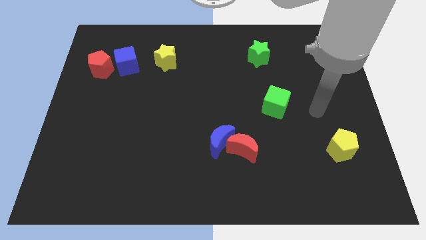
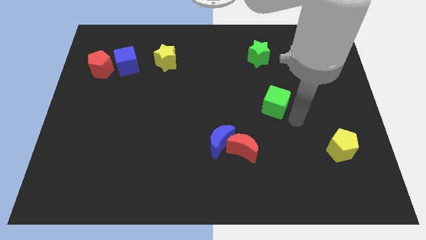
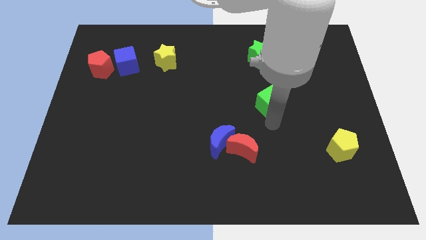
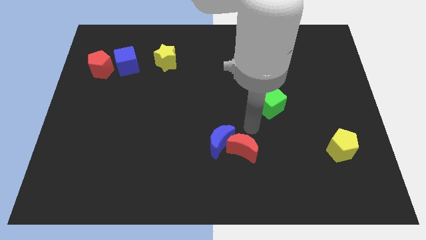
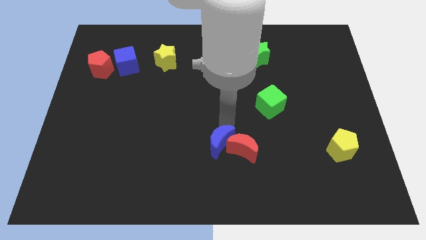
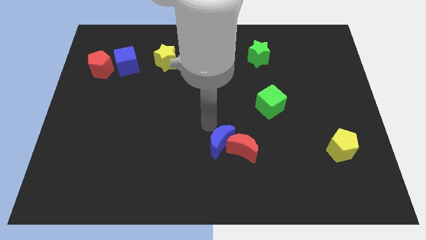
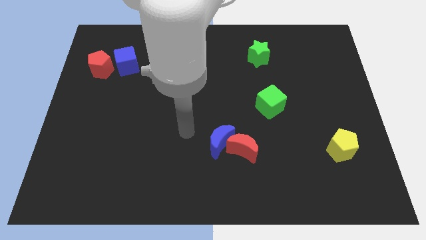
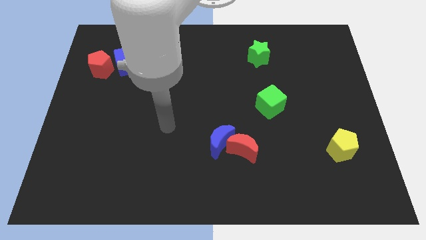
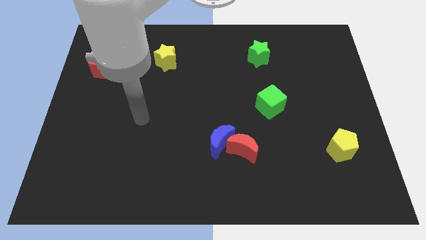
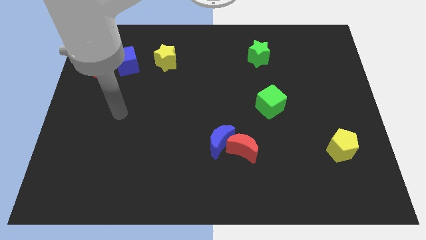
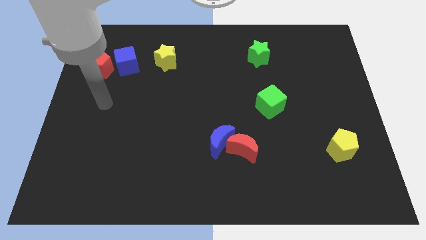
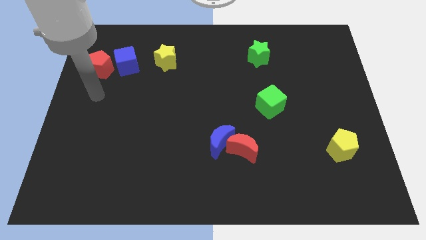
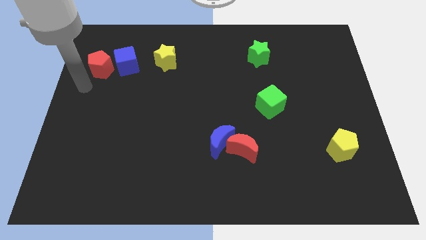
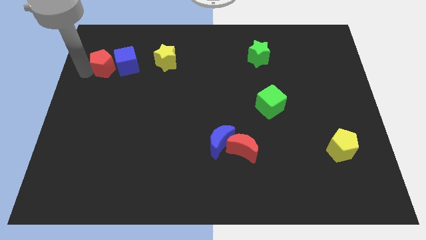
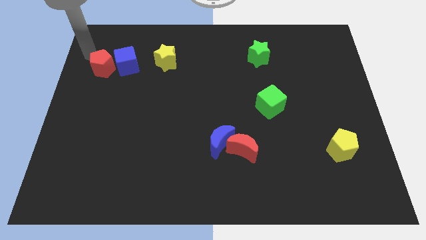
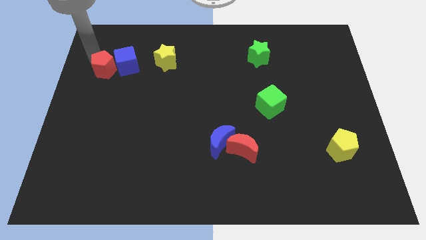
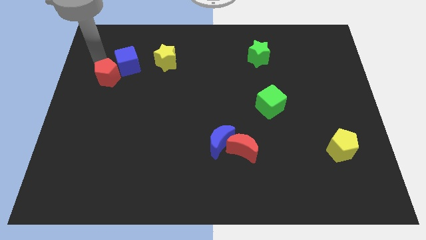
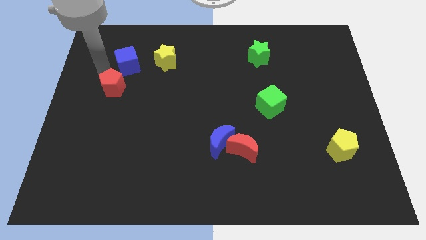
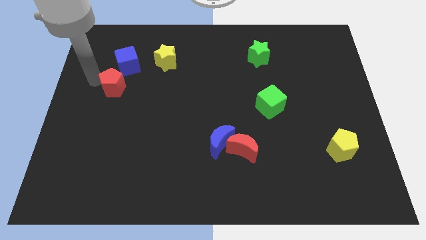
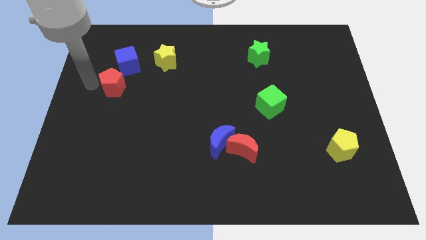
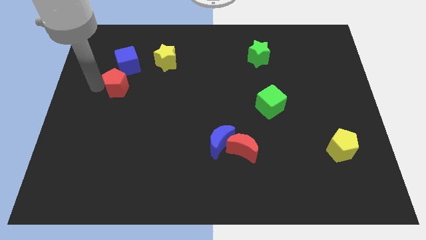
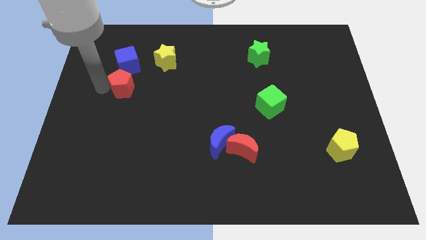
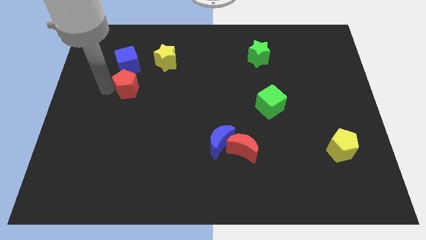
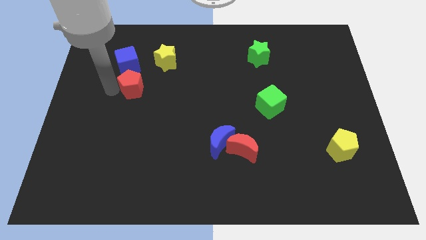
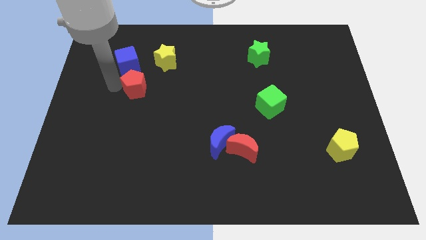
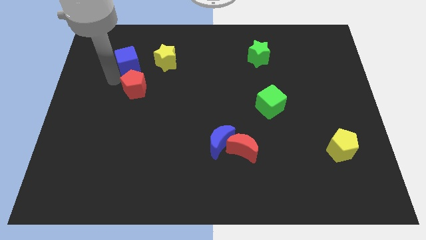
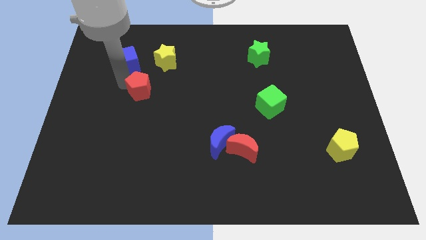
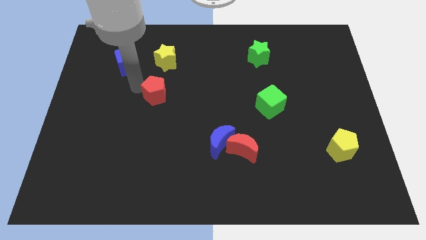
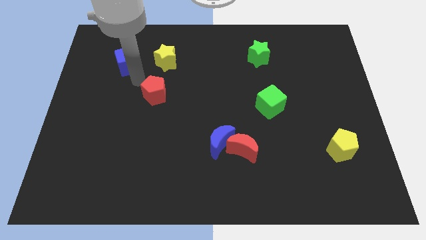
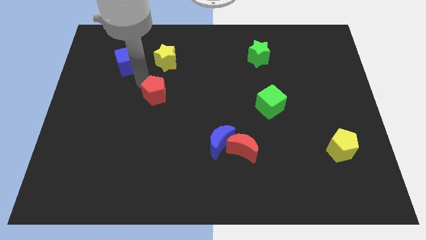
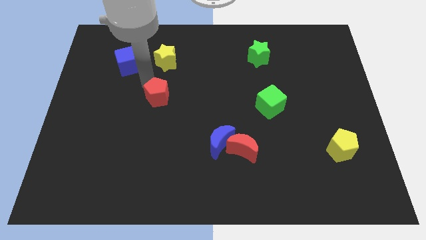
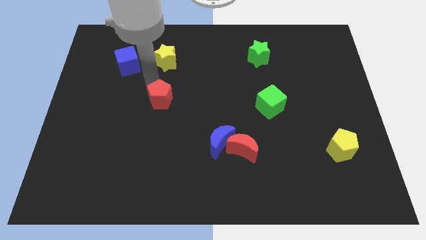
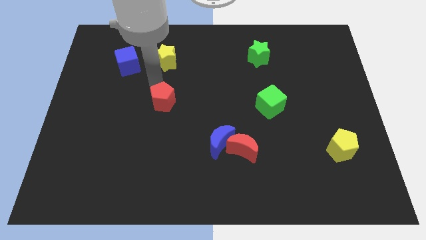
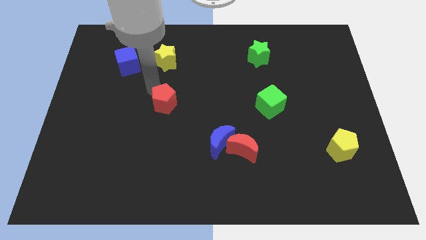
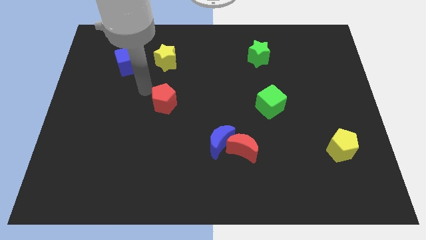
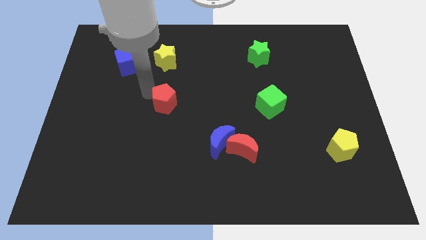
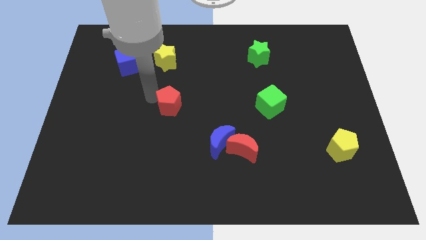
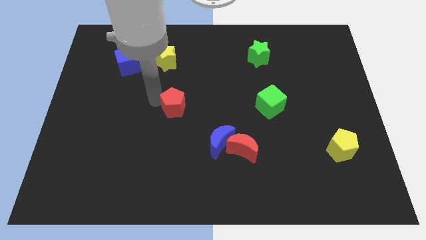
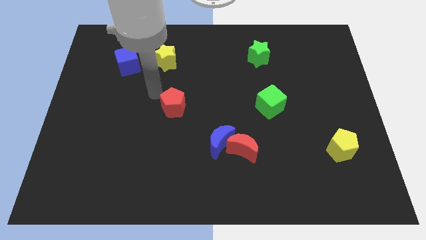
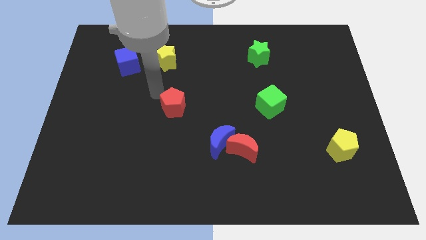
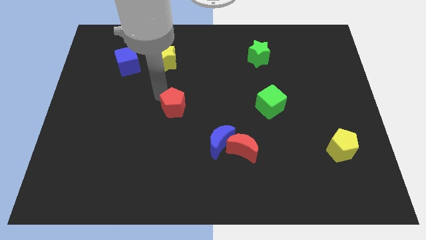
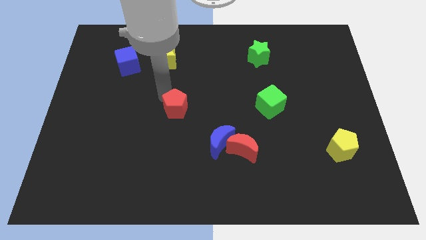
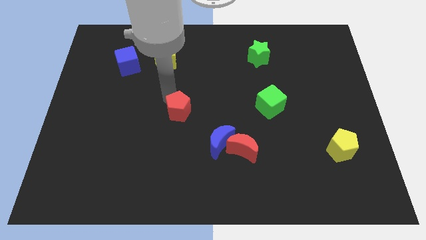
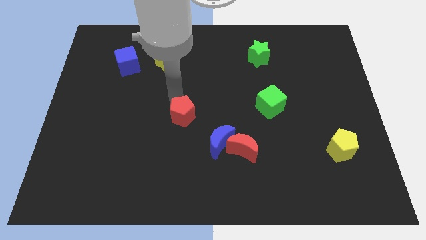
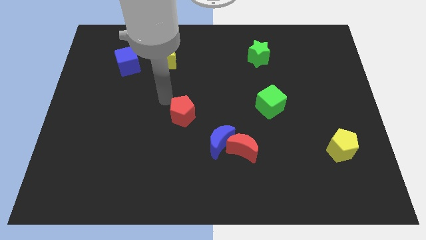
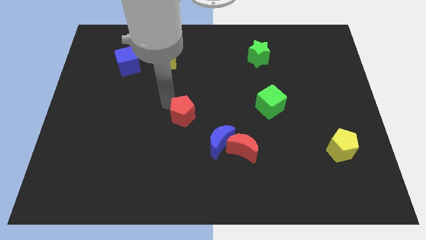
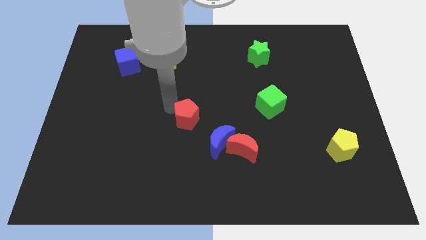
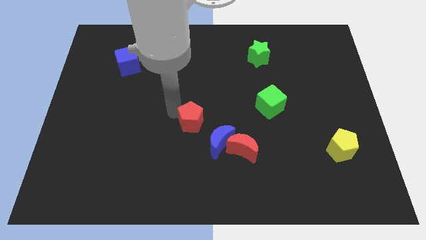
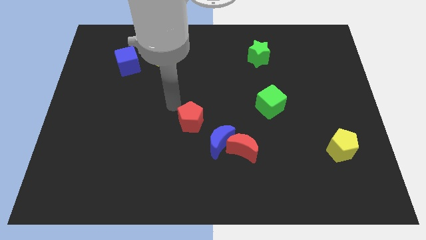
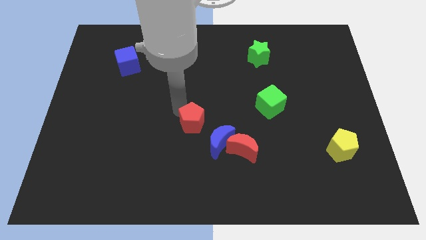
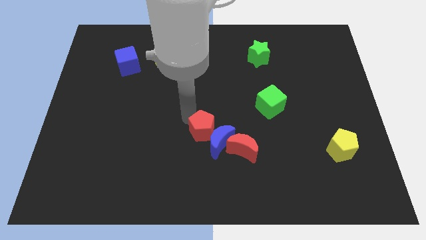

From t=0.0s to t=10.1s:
push the red pentagon to the blue moon

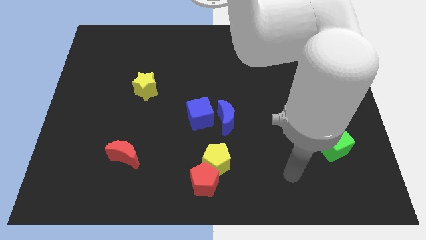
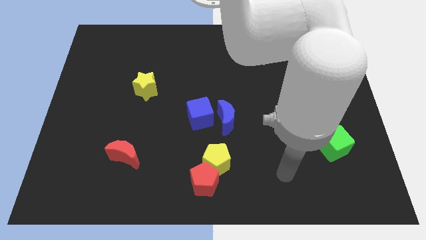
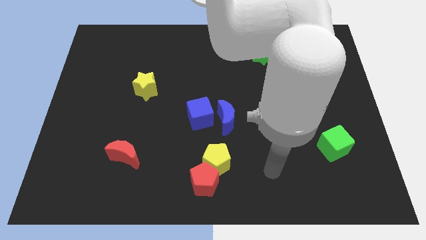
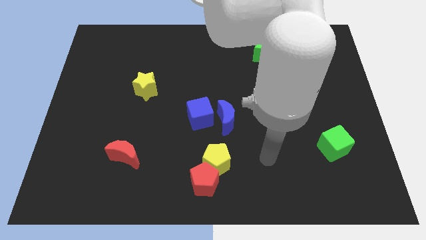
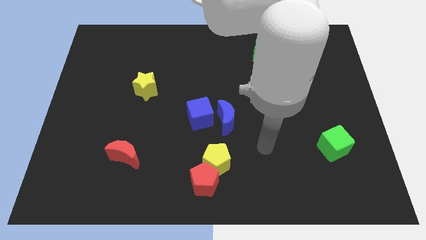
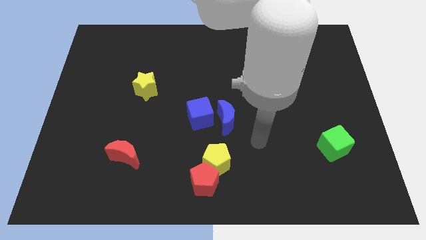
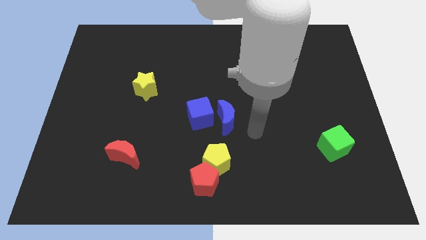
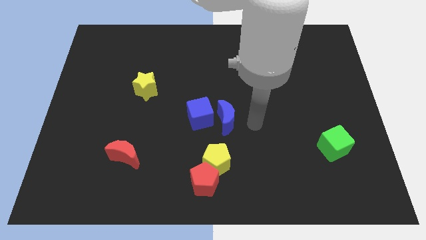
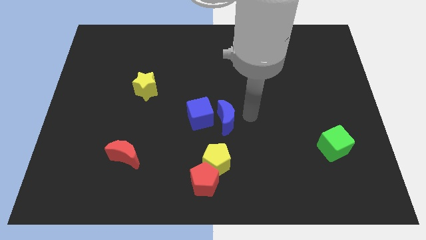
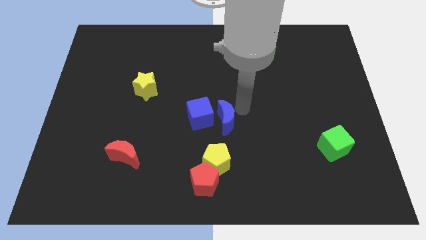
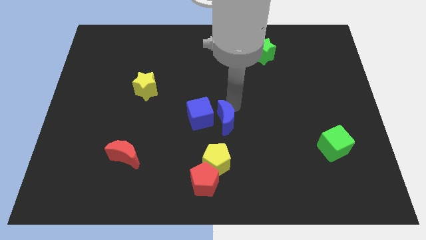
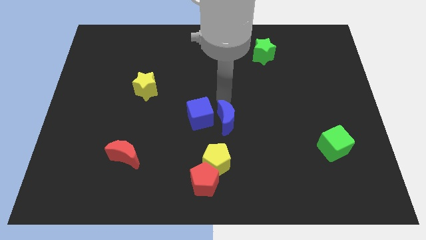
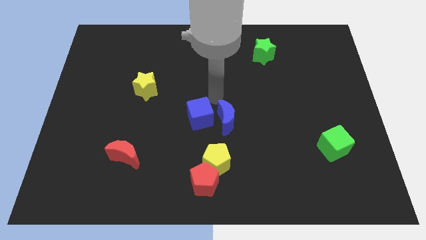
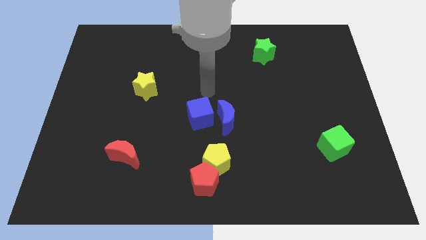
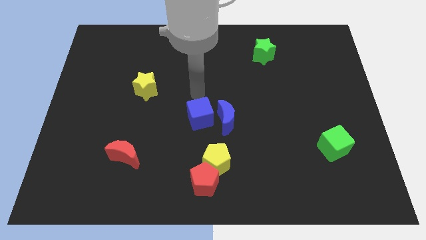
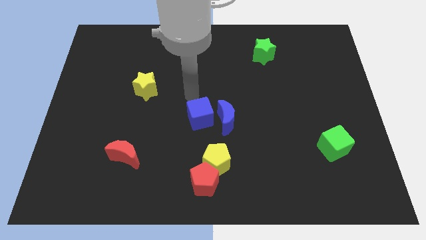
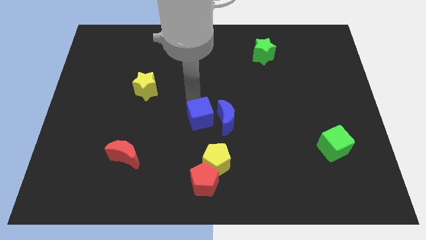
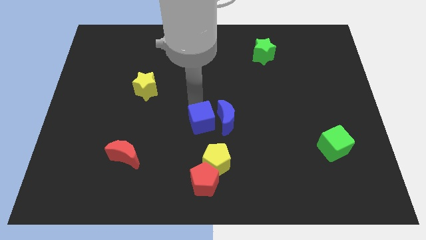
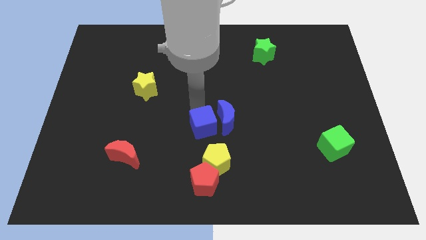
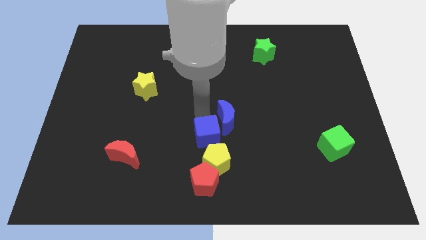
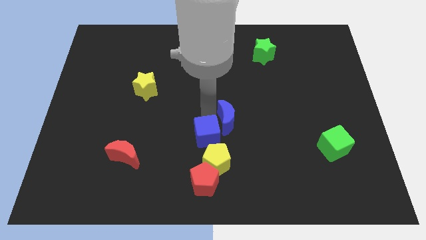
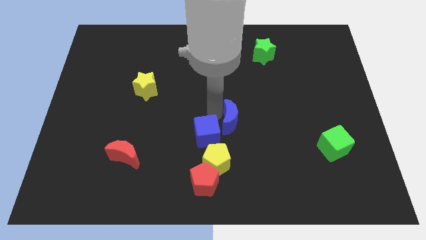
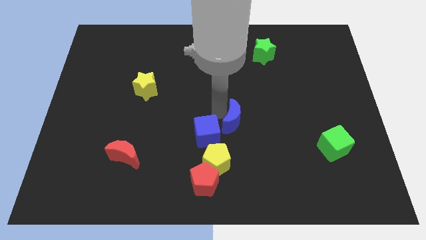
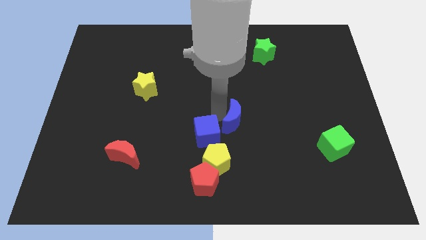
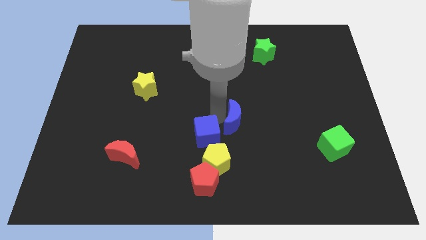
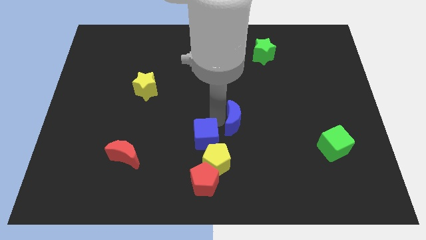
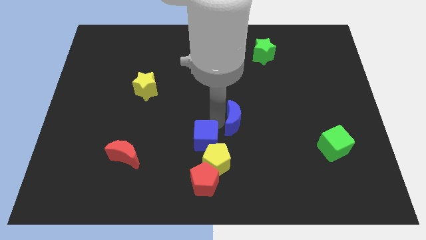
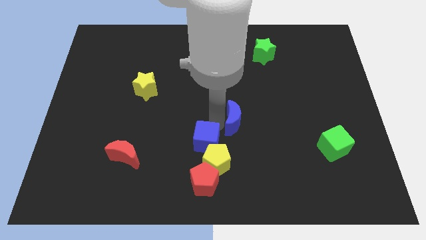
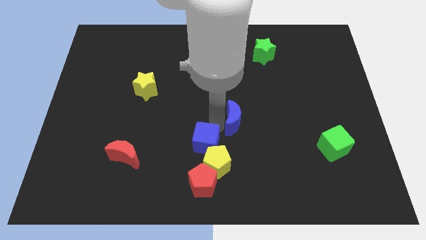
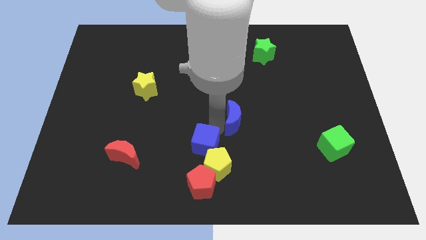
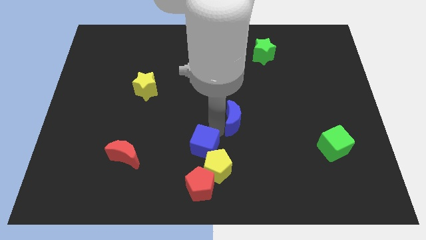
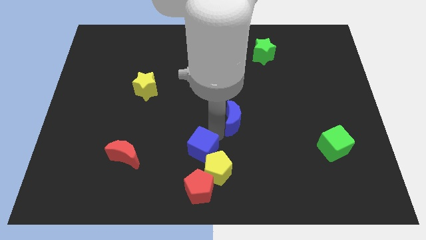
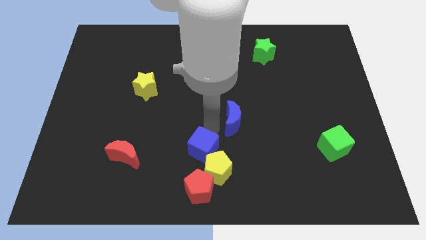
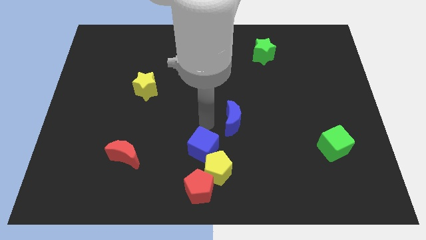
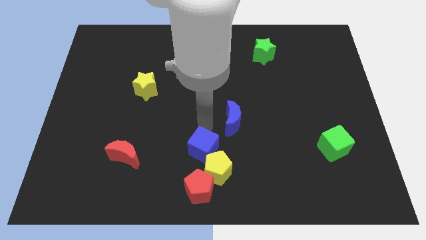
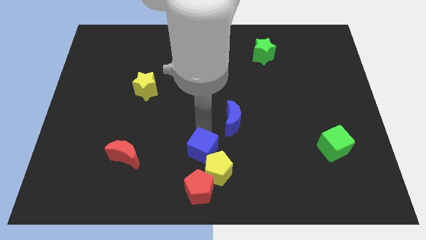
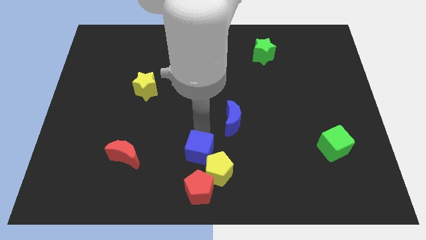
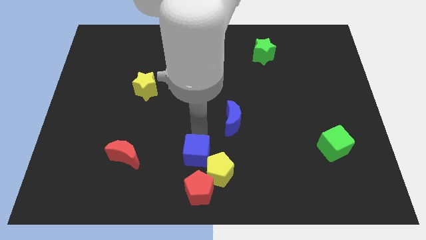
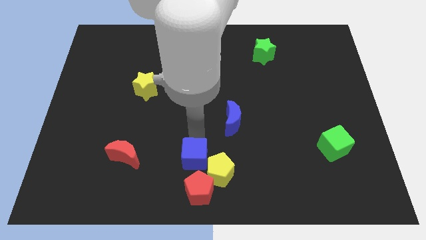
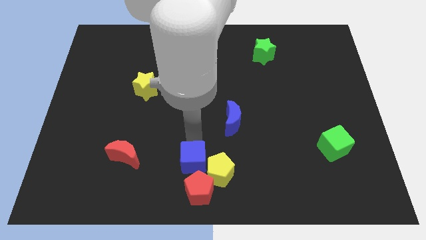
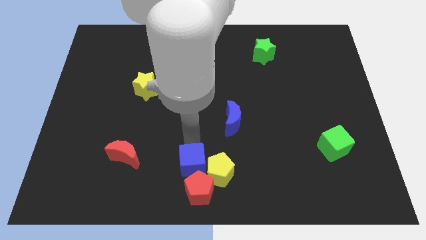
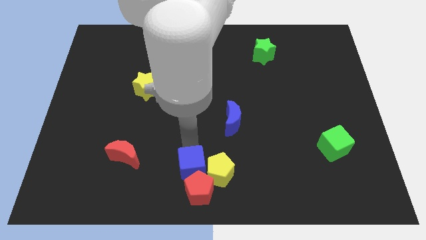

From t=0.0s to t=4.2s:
push the blue cube next to the red pentagon
